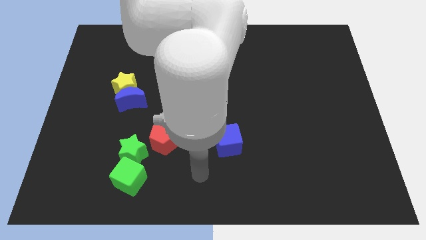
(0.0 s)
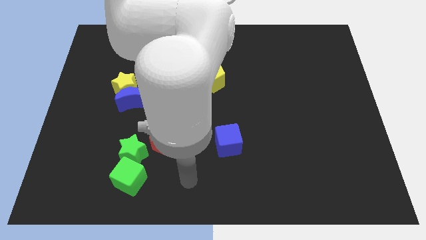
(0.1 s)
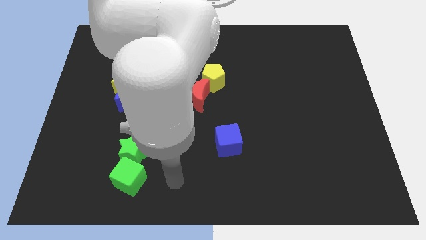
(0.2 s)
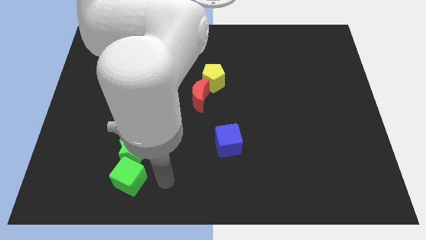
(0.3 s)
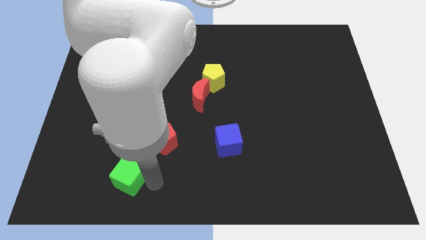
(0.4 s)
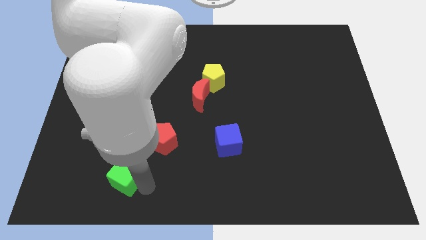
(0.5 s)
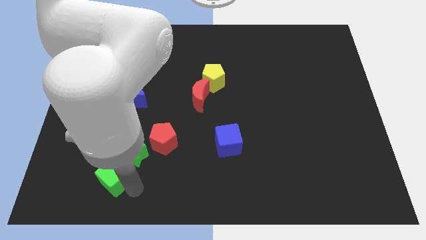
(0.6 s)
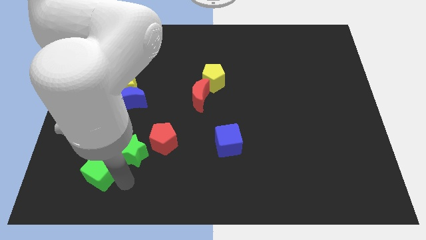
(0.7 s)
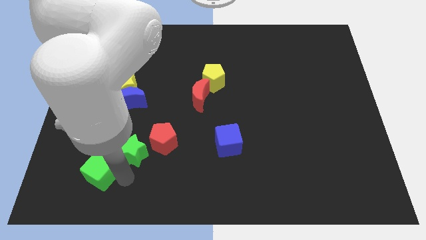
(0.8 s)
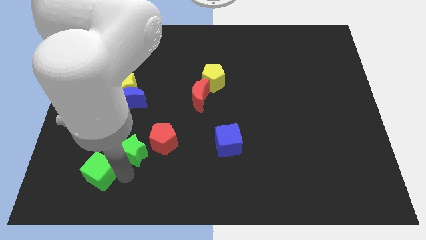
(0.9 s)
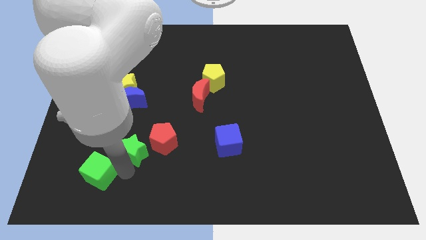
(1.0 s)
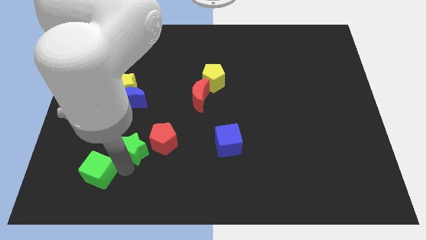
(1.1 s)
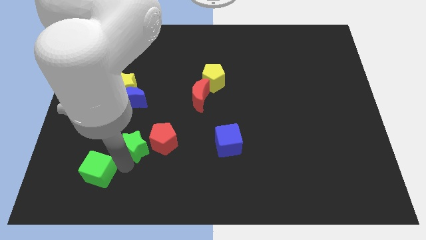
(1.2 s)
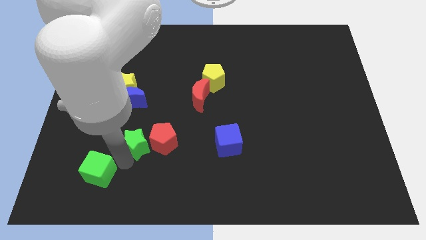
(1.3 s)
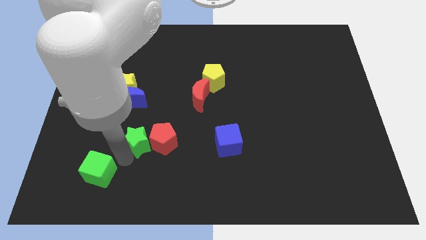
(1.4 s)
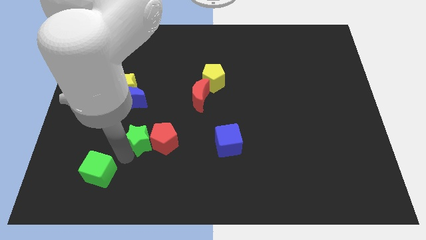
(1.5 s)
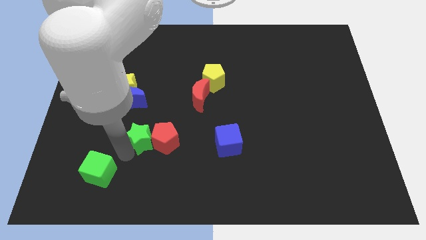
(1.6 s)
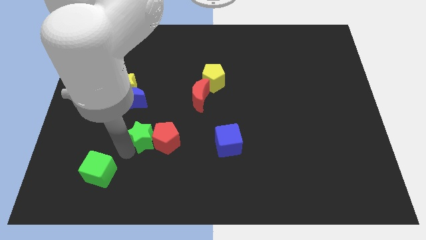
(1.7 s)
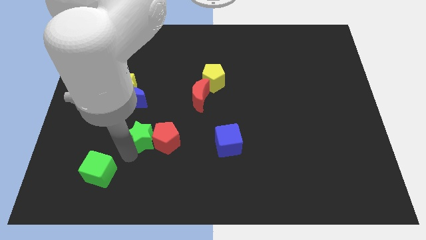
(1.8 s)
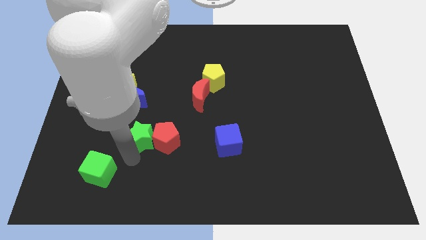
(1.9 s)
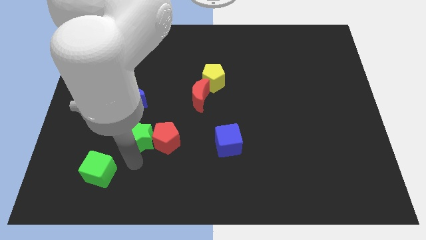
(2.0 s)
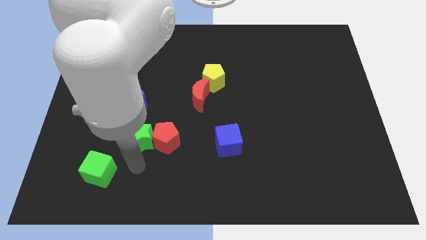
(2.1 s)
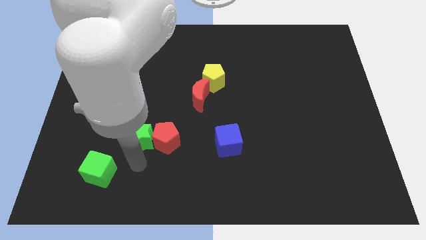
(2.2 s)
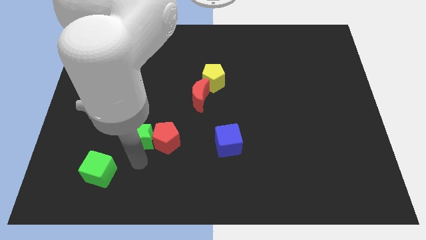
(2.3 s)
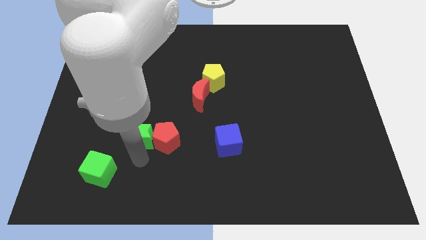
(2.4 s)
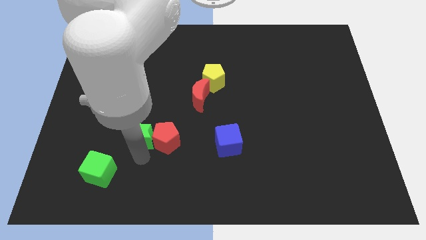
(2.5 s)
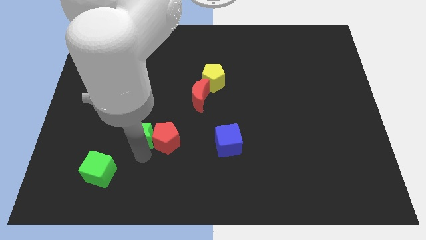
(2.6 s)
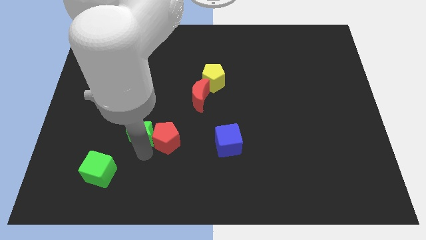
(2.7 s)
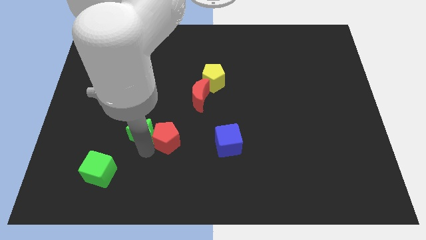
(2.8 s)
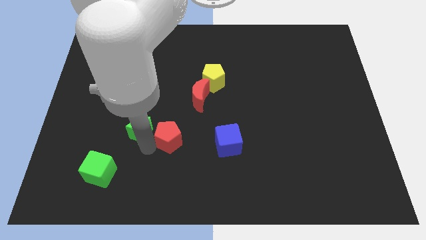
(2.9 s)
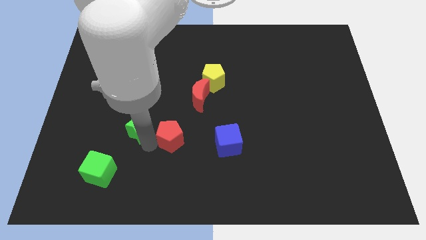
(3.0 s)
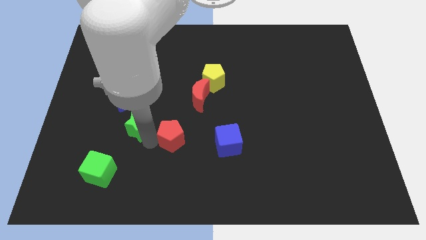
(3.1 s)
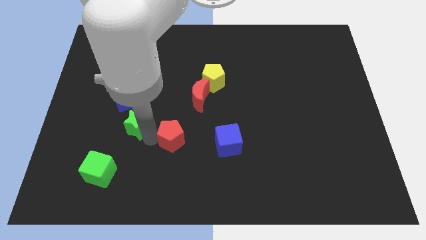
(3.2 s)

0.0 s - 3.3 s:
move the green star a bit up

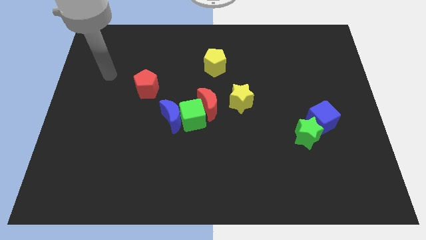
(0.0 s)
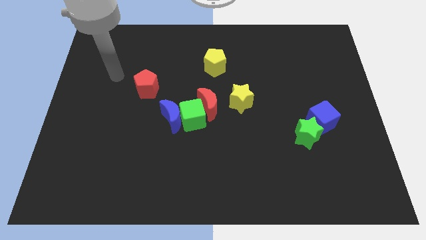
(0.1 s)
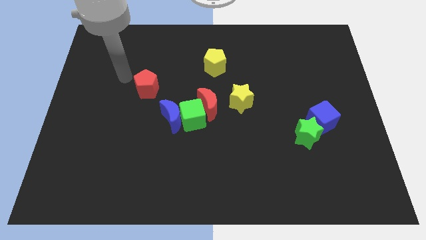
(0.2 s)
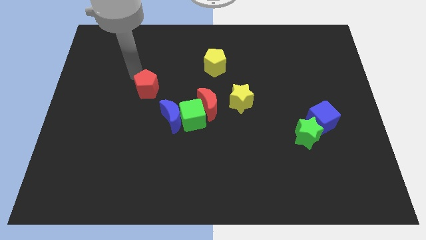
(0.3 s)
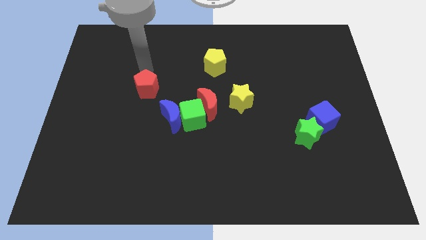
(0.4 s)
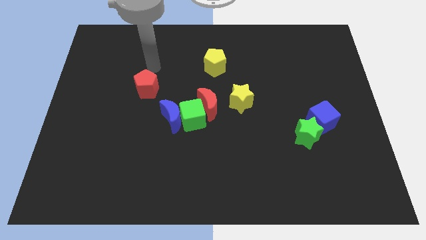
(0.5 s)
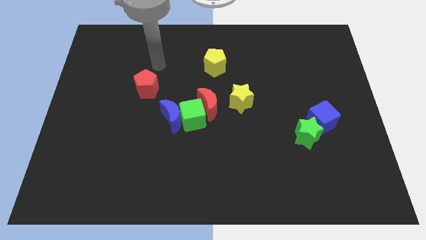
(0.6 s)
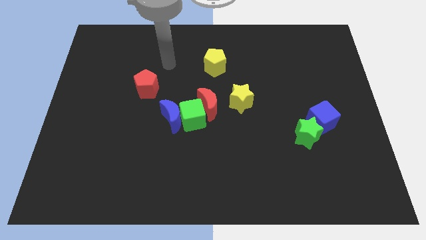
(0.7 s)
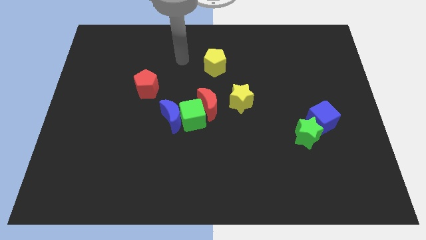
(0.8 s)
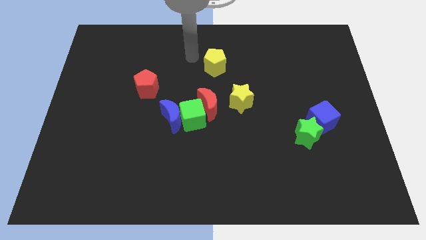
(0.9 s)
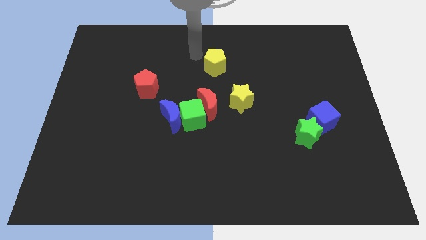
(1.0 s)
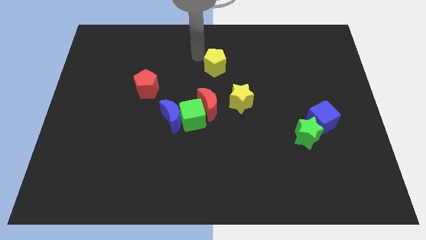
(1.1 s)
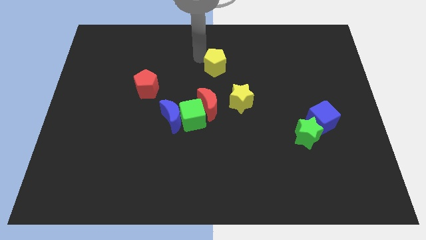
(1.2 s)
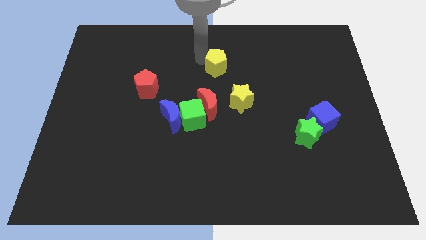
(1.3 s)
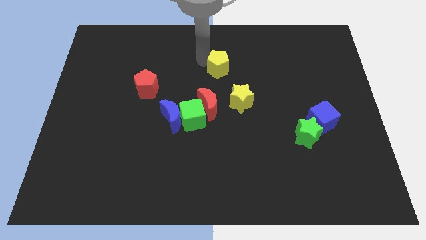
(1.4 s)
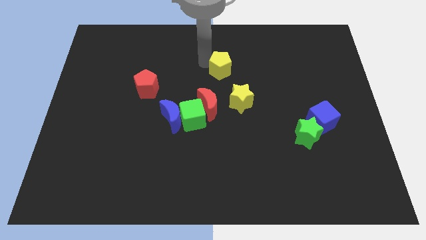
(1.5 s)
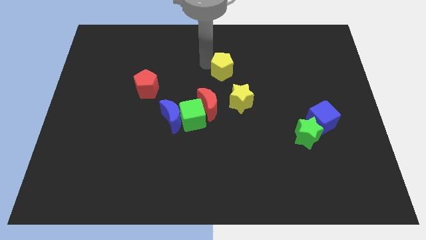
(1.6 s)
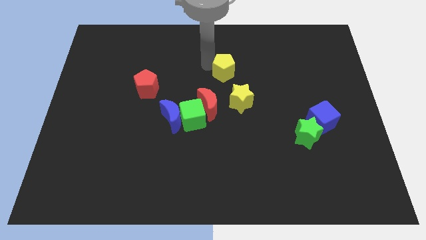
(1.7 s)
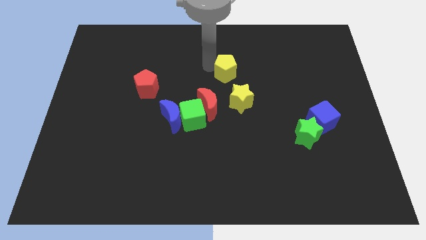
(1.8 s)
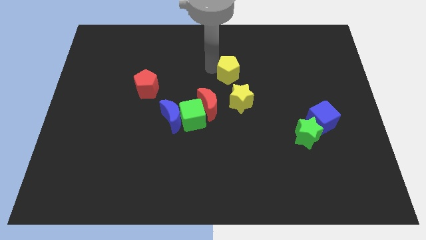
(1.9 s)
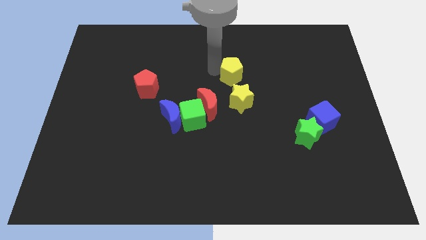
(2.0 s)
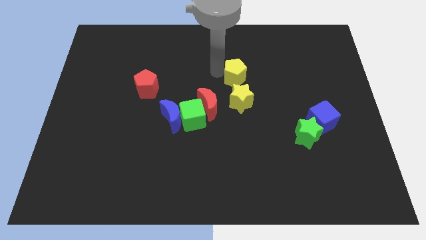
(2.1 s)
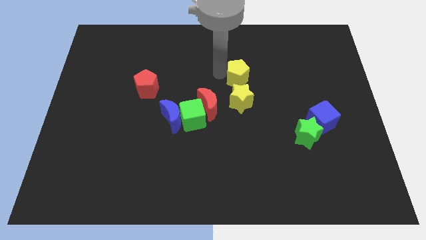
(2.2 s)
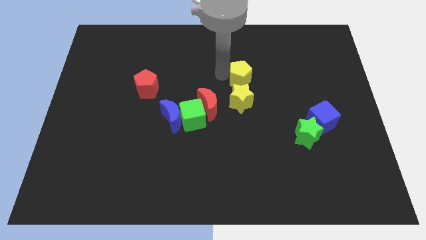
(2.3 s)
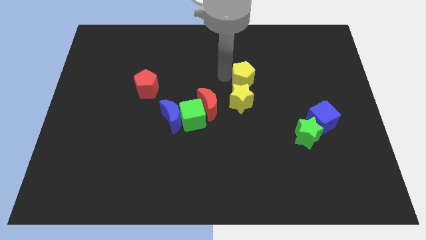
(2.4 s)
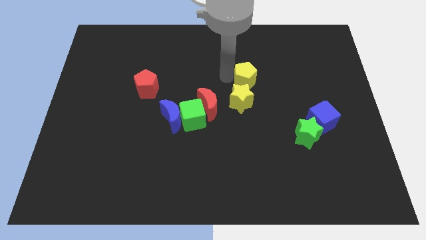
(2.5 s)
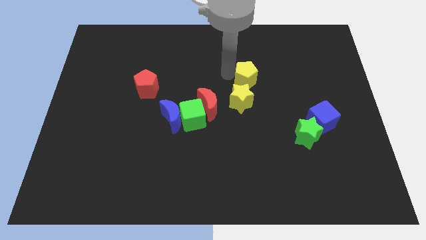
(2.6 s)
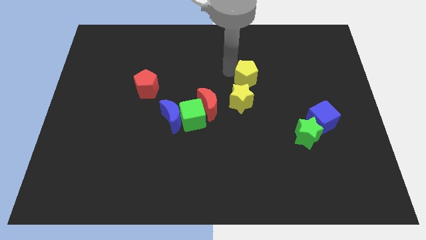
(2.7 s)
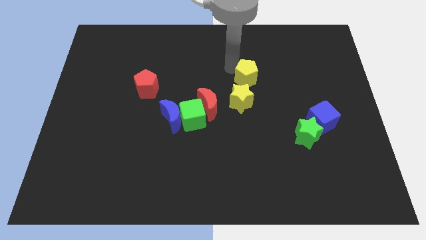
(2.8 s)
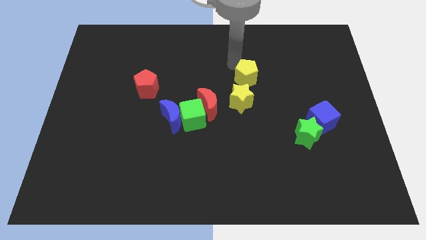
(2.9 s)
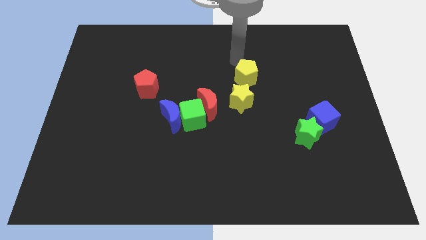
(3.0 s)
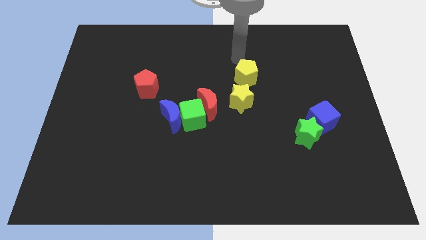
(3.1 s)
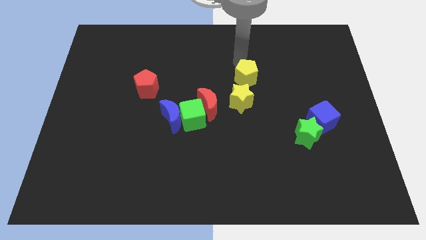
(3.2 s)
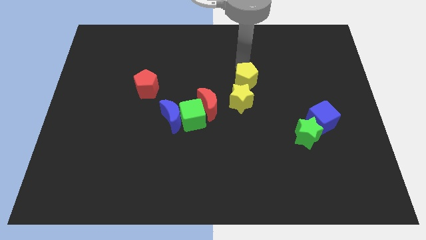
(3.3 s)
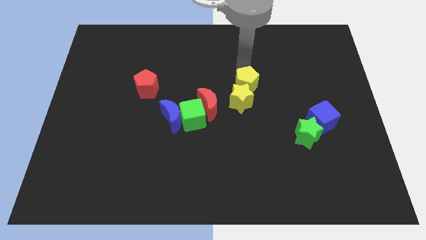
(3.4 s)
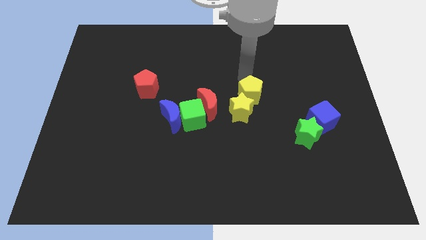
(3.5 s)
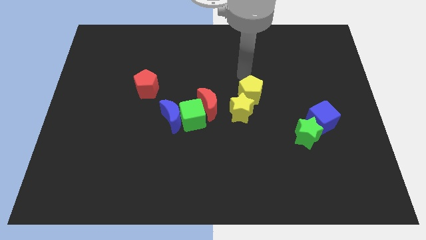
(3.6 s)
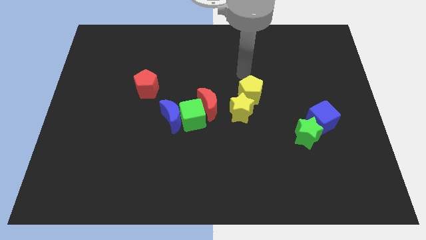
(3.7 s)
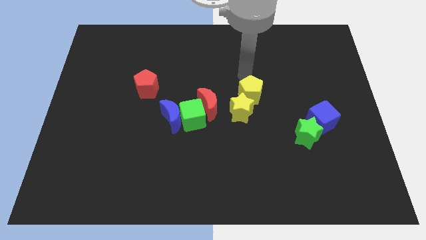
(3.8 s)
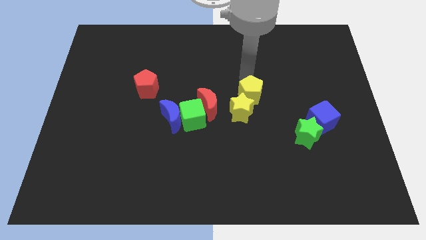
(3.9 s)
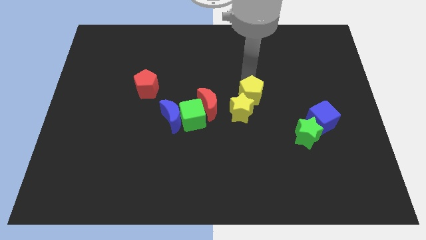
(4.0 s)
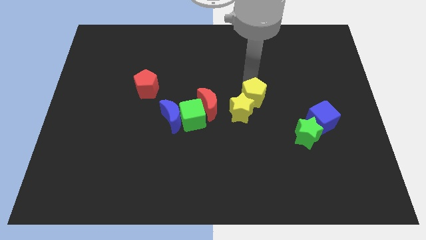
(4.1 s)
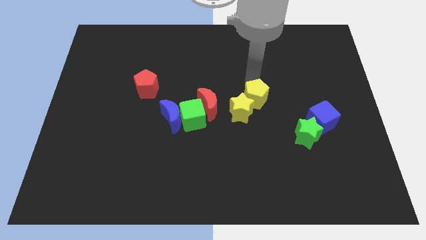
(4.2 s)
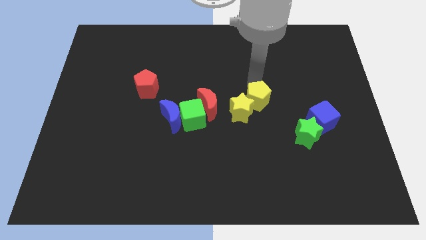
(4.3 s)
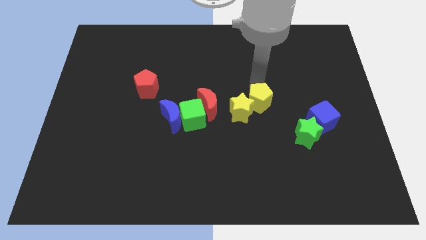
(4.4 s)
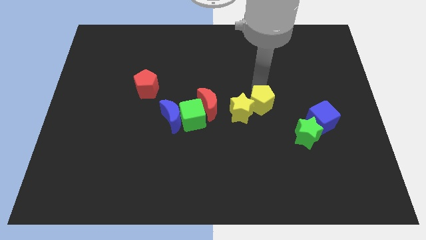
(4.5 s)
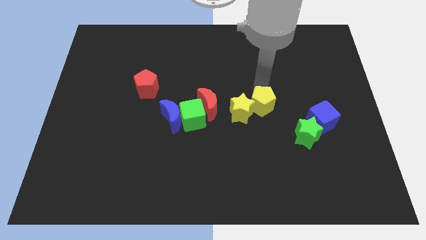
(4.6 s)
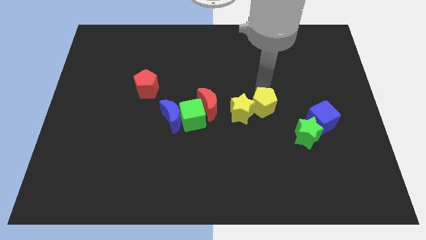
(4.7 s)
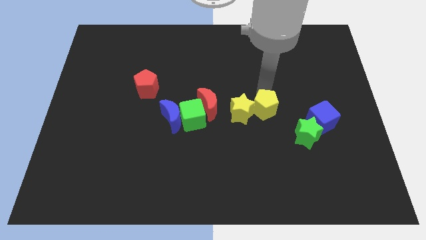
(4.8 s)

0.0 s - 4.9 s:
slide the yellow pentagon somewhat downwards

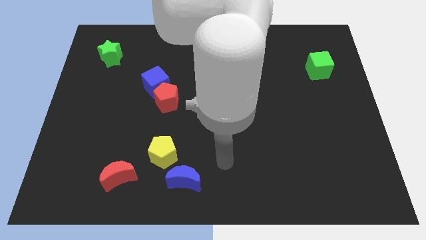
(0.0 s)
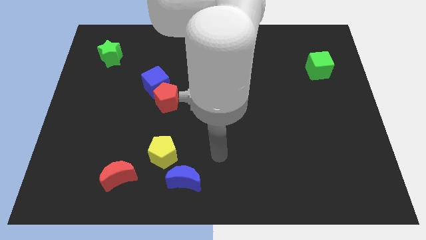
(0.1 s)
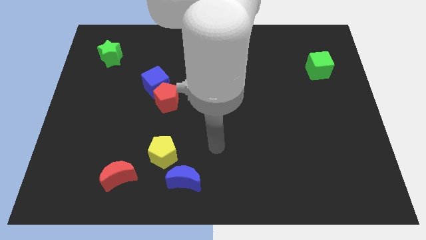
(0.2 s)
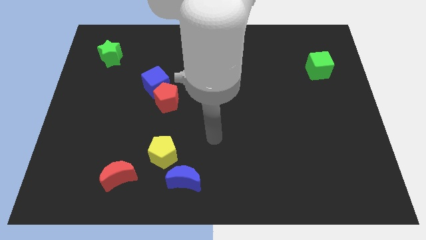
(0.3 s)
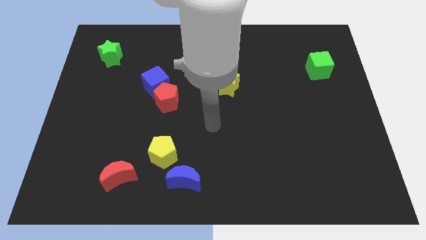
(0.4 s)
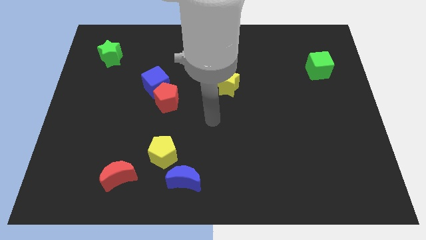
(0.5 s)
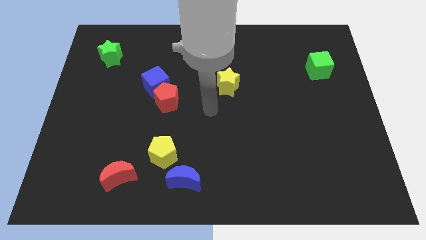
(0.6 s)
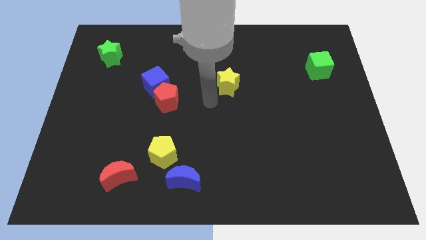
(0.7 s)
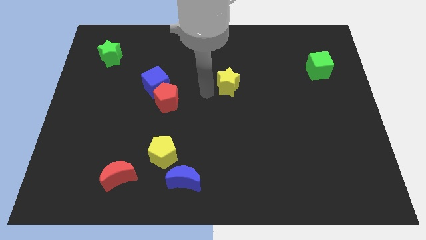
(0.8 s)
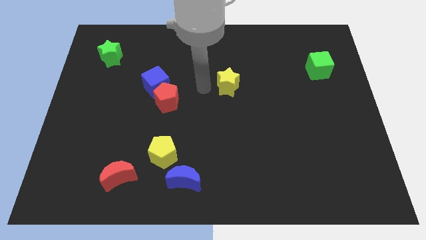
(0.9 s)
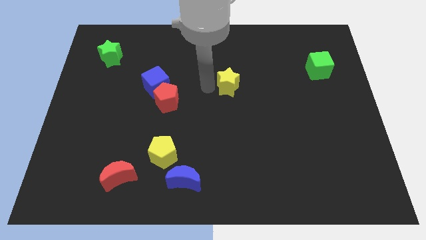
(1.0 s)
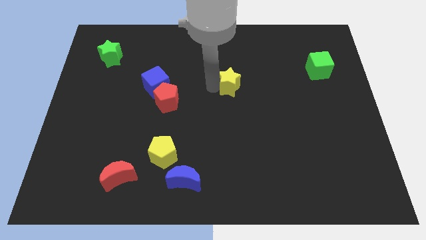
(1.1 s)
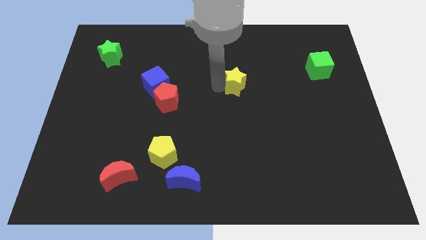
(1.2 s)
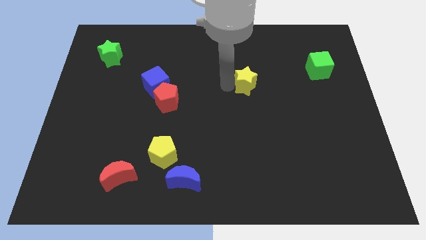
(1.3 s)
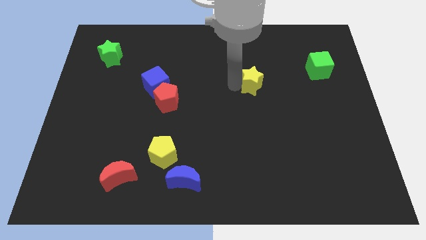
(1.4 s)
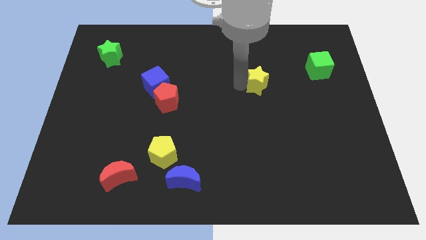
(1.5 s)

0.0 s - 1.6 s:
move the yellow star to the right a bit
